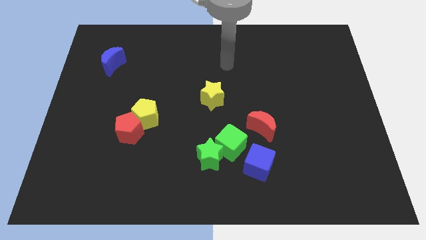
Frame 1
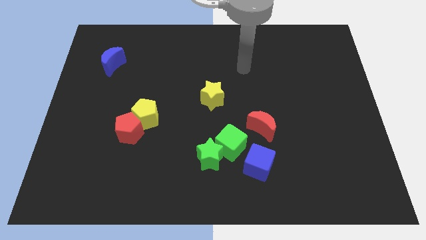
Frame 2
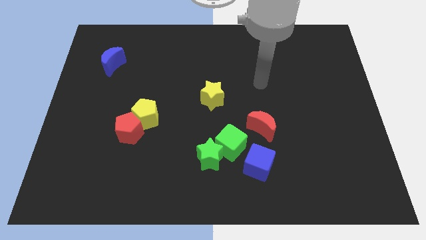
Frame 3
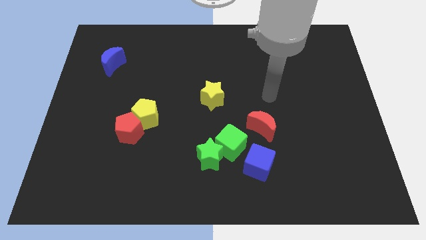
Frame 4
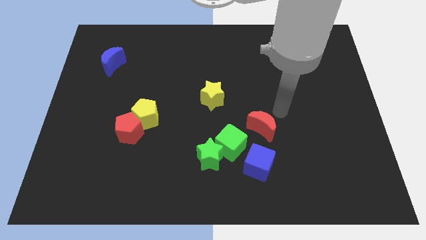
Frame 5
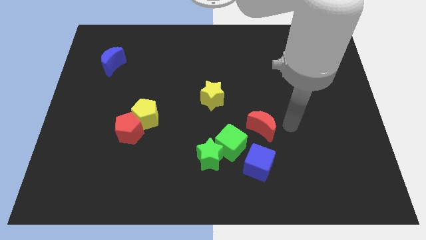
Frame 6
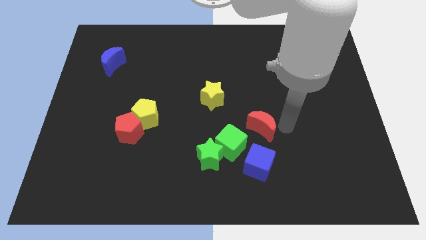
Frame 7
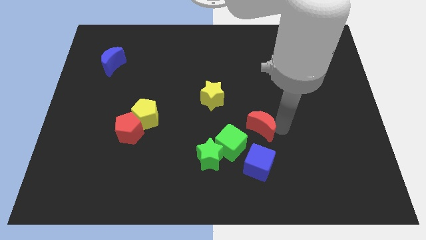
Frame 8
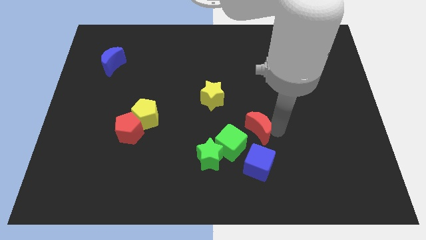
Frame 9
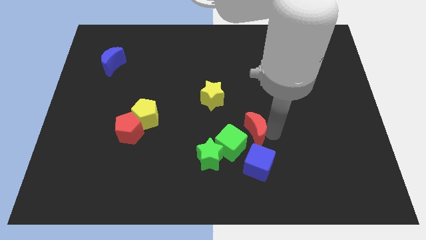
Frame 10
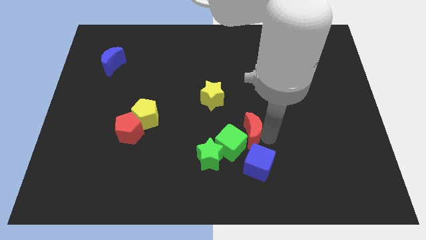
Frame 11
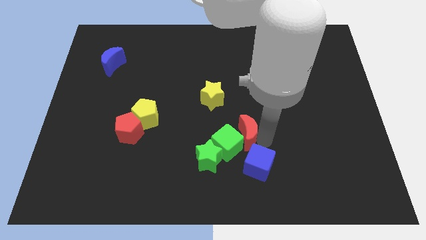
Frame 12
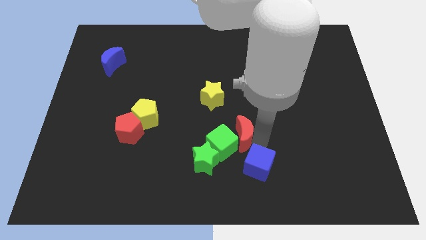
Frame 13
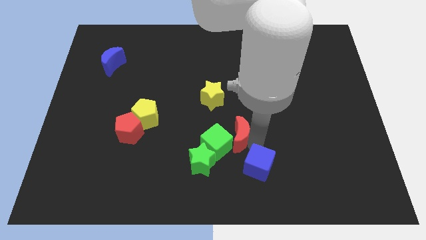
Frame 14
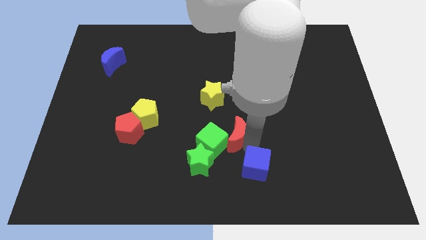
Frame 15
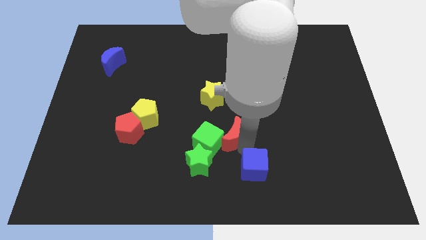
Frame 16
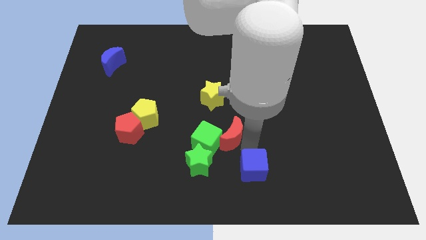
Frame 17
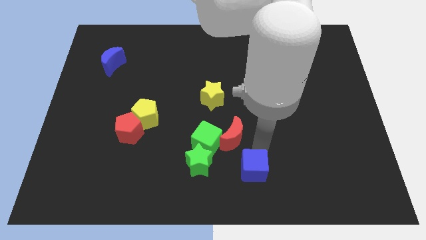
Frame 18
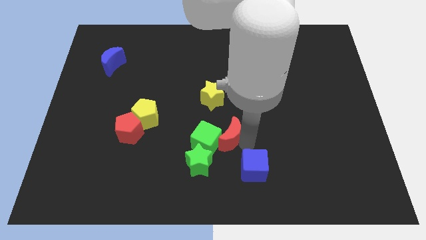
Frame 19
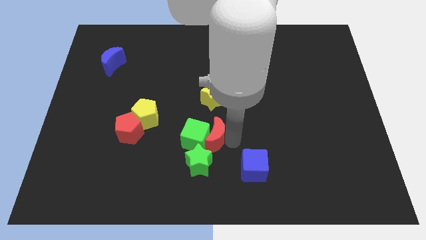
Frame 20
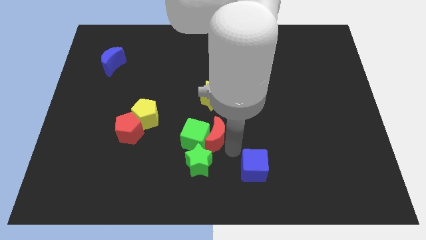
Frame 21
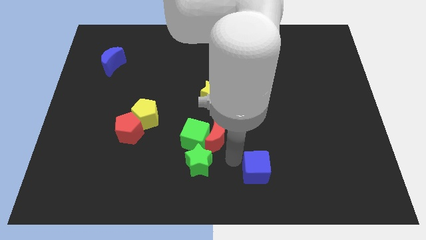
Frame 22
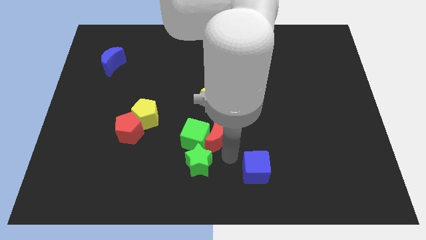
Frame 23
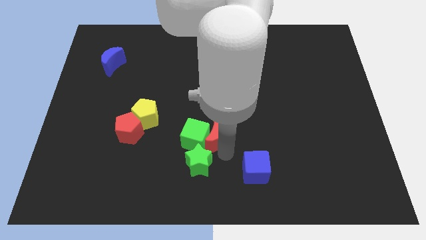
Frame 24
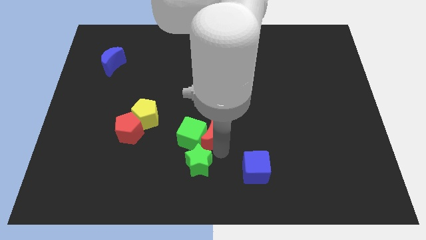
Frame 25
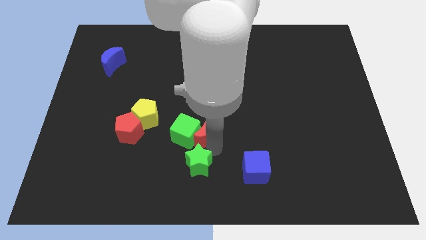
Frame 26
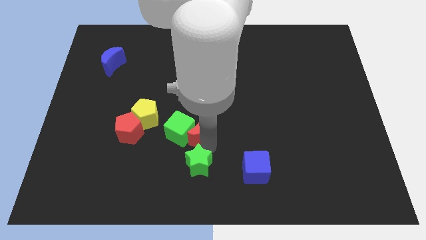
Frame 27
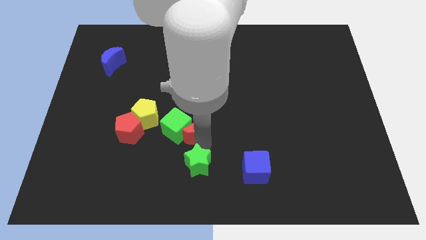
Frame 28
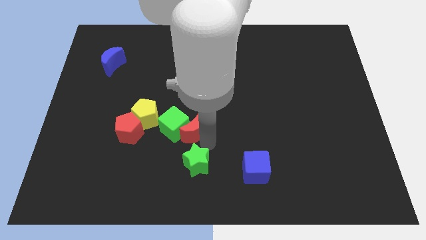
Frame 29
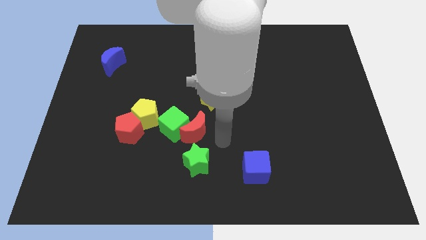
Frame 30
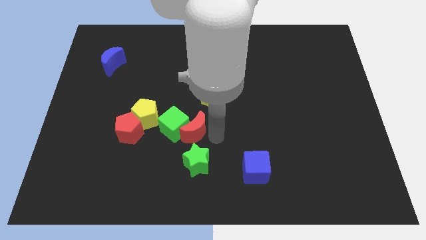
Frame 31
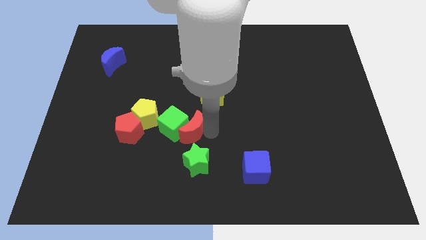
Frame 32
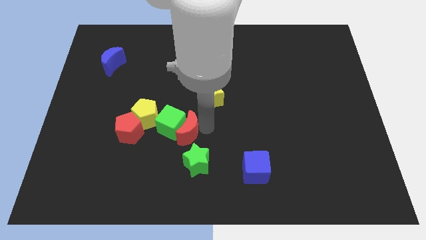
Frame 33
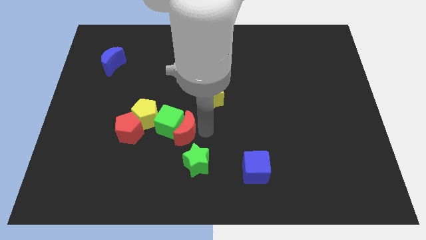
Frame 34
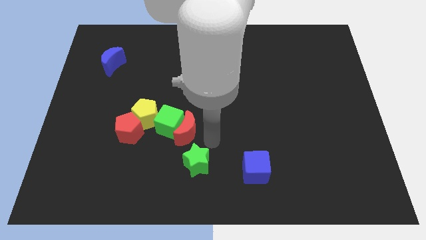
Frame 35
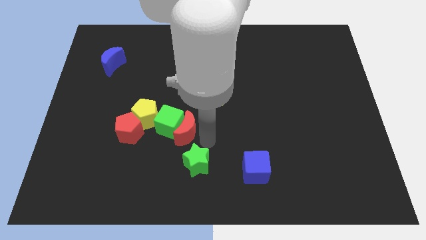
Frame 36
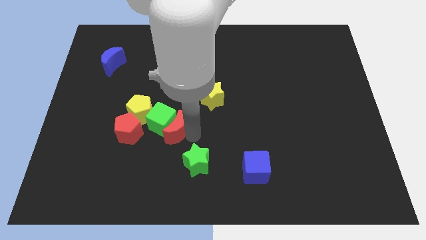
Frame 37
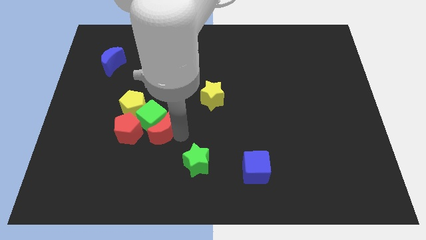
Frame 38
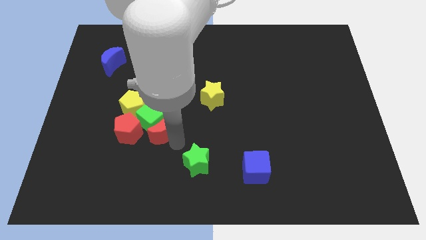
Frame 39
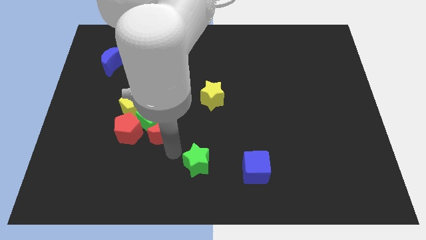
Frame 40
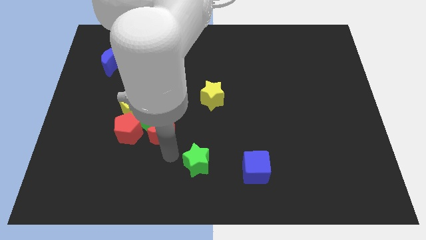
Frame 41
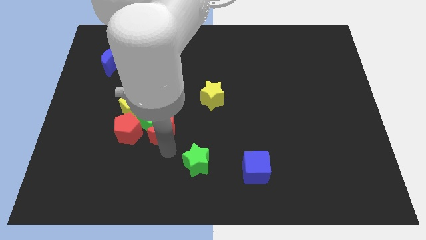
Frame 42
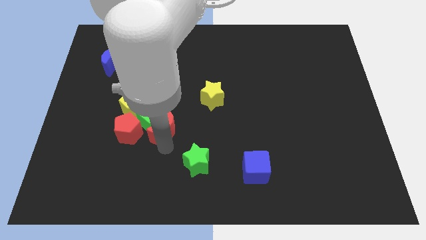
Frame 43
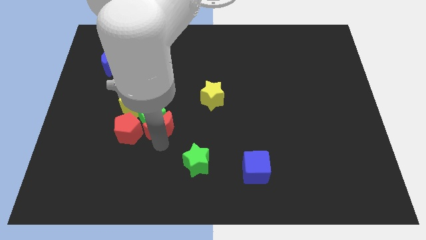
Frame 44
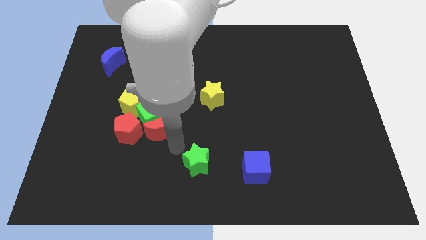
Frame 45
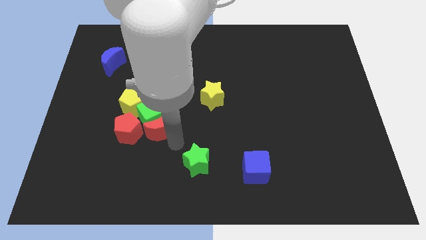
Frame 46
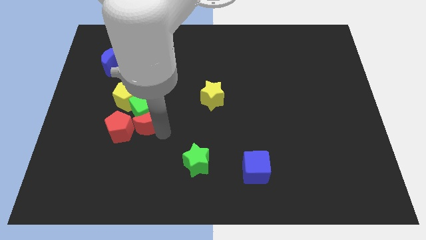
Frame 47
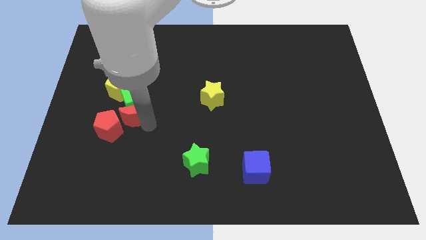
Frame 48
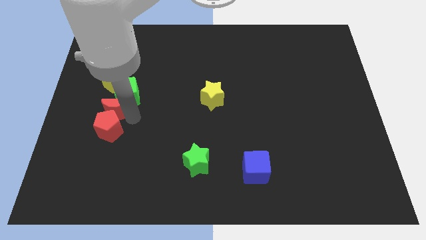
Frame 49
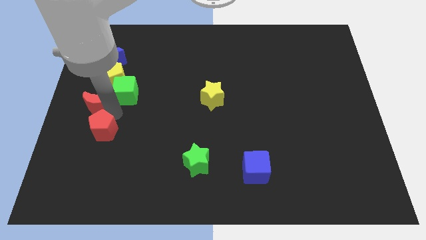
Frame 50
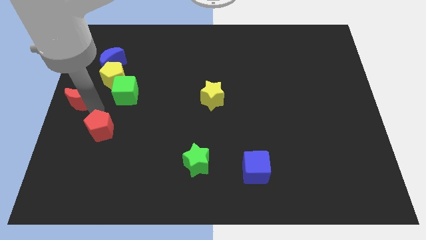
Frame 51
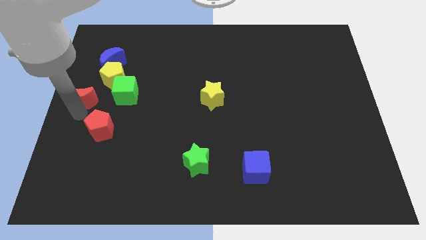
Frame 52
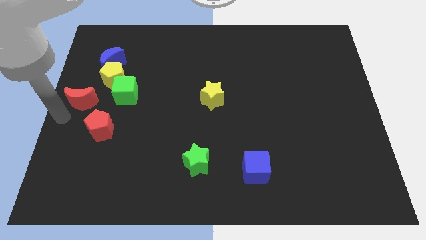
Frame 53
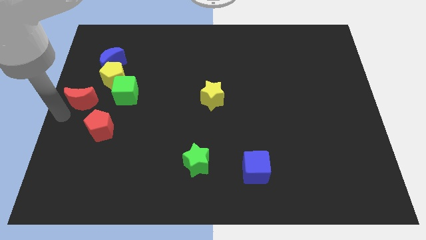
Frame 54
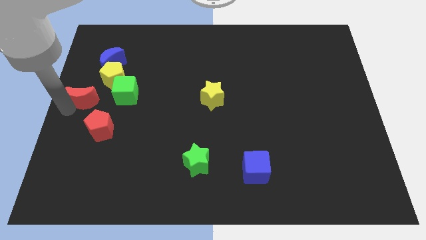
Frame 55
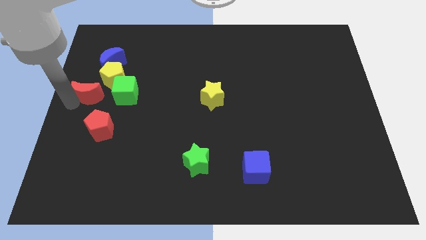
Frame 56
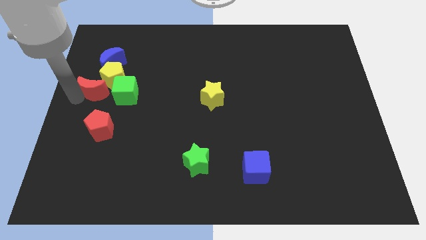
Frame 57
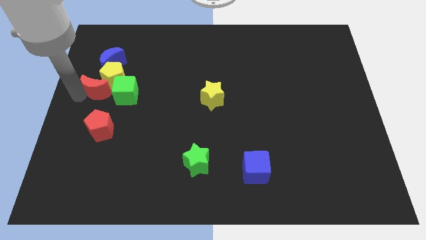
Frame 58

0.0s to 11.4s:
slide the red moon close to the yellow pentagon

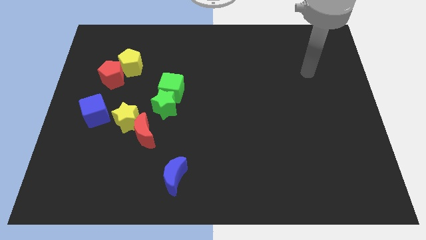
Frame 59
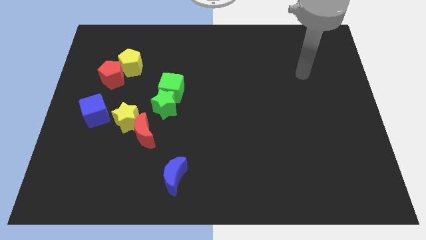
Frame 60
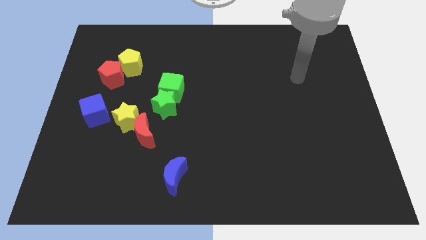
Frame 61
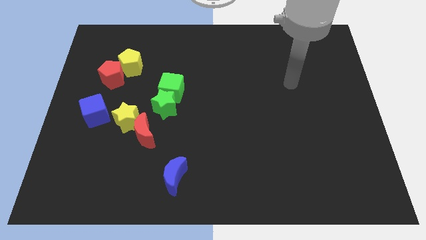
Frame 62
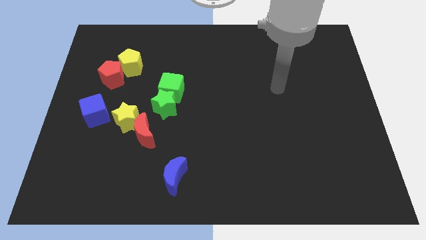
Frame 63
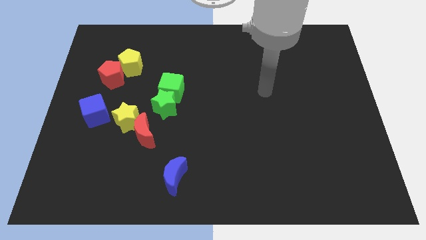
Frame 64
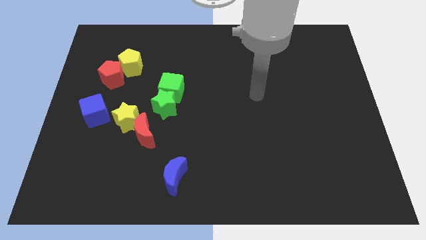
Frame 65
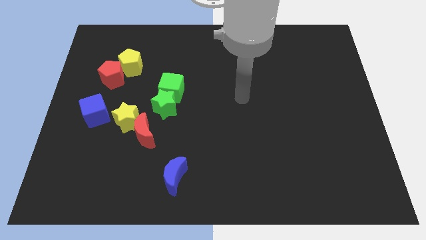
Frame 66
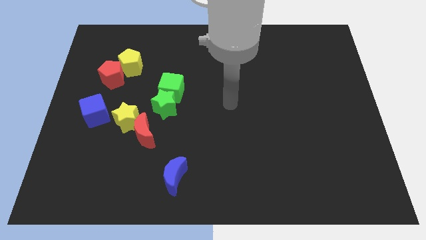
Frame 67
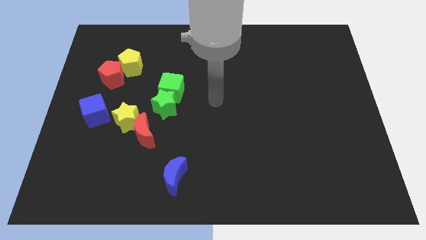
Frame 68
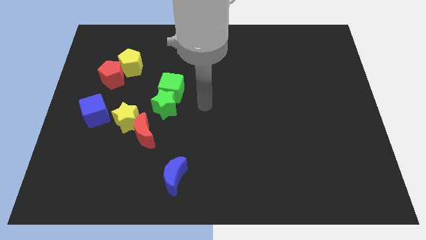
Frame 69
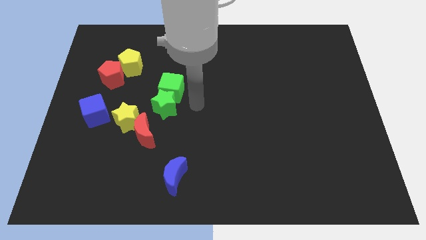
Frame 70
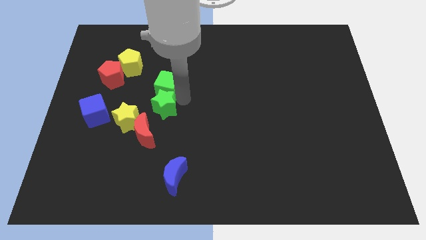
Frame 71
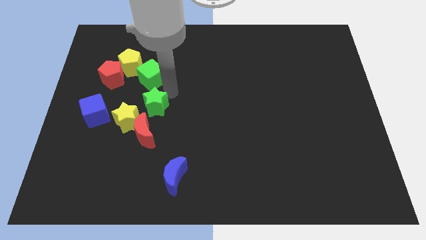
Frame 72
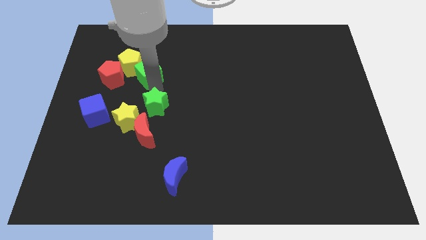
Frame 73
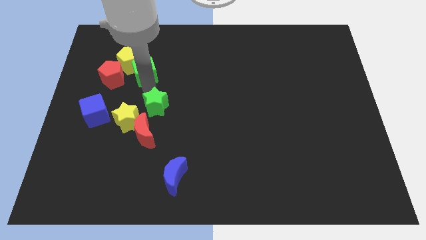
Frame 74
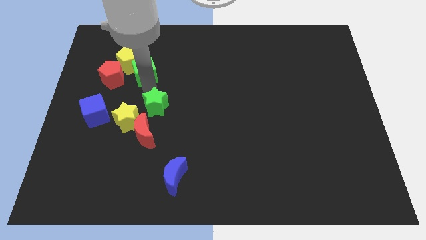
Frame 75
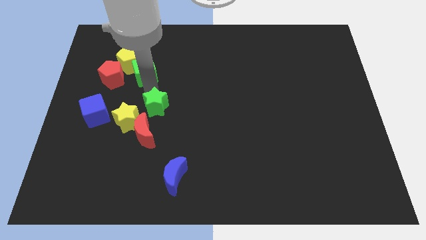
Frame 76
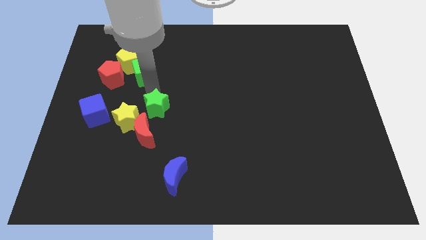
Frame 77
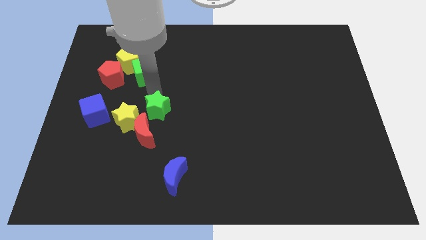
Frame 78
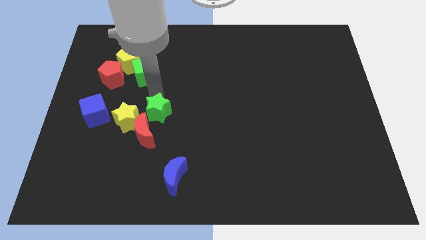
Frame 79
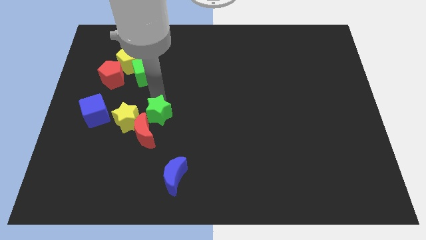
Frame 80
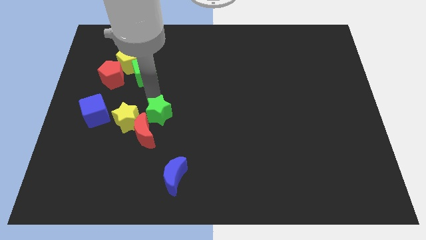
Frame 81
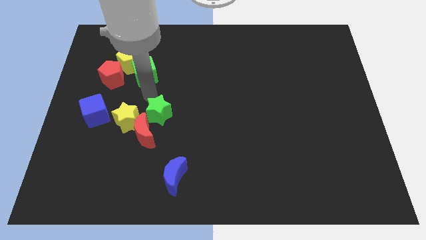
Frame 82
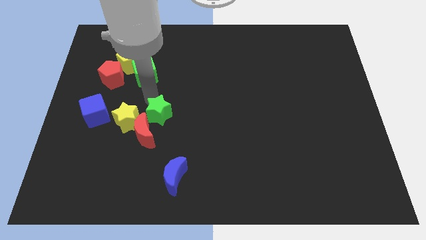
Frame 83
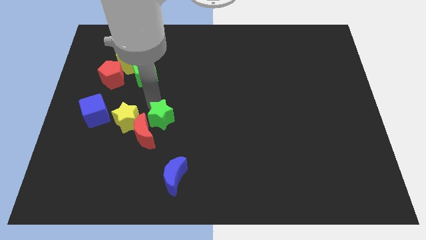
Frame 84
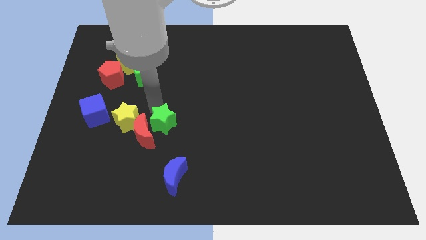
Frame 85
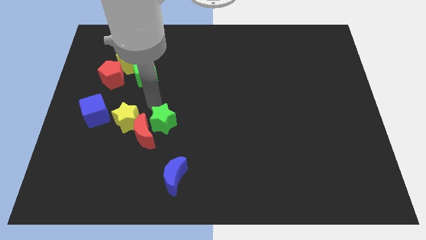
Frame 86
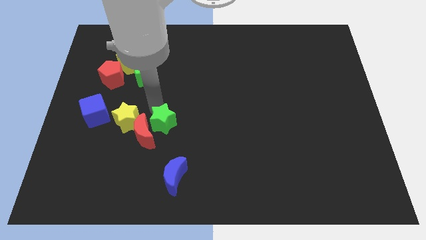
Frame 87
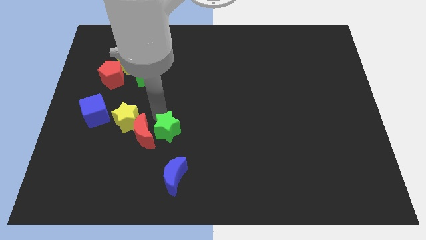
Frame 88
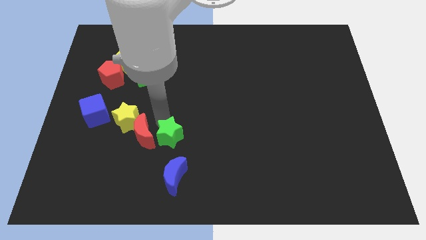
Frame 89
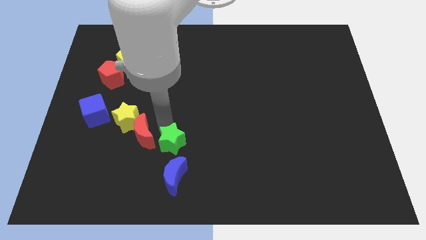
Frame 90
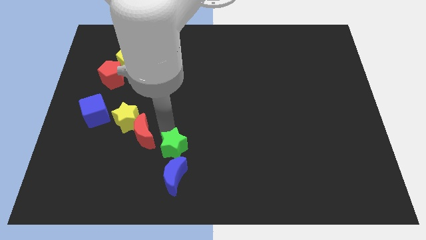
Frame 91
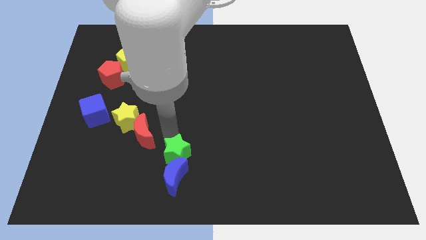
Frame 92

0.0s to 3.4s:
slide the green star next to the blue moon
